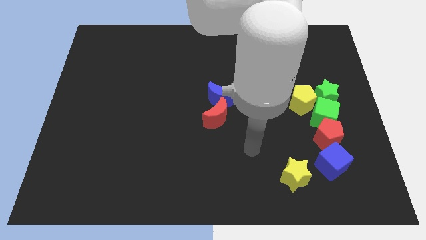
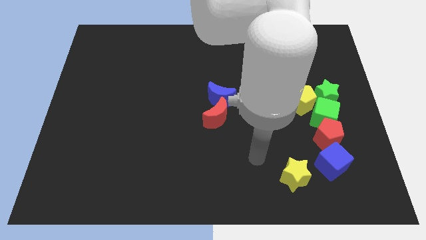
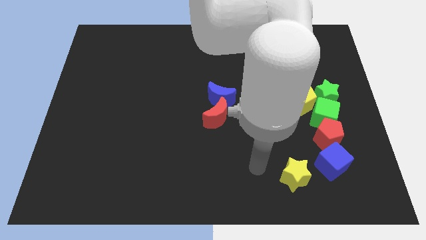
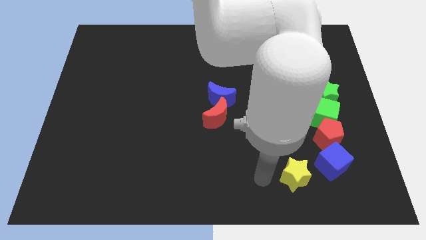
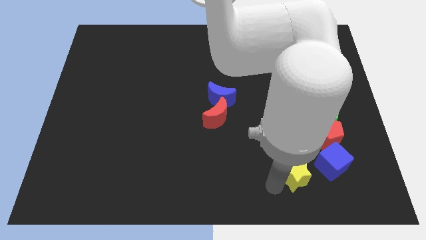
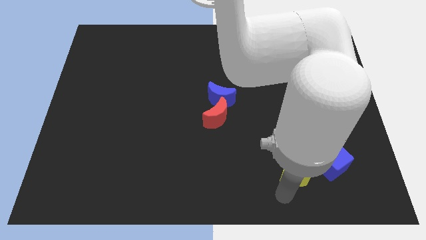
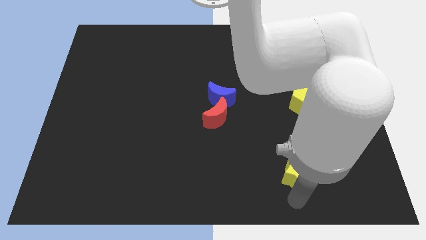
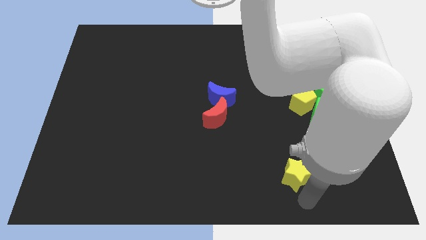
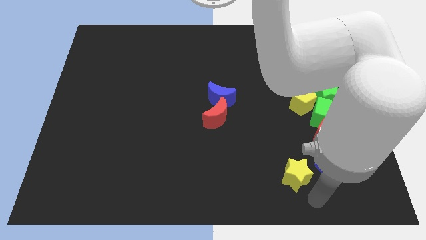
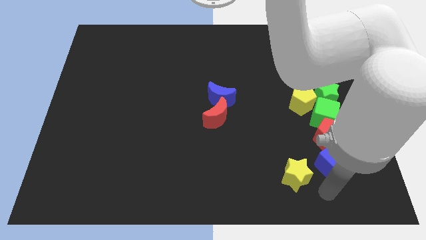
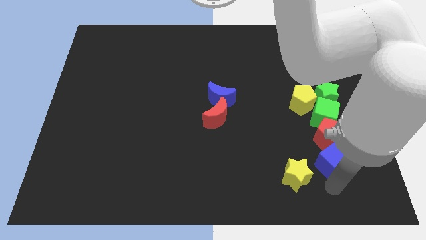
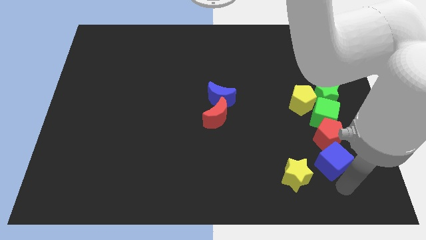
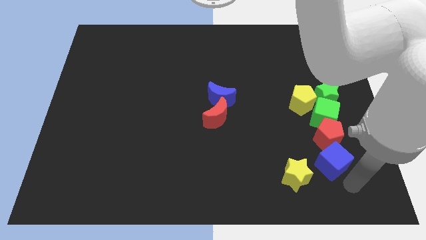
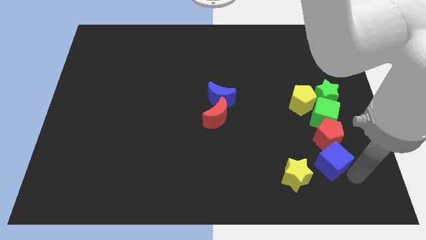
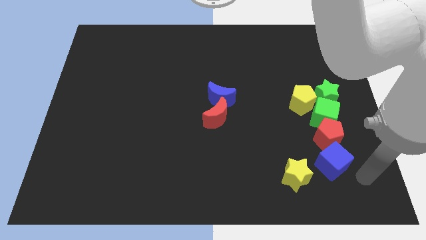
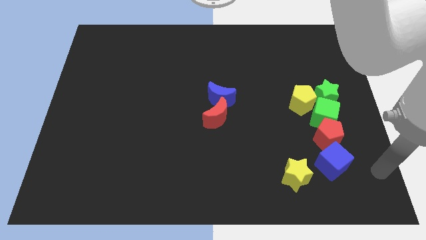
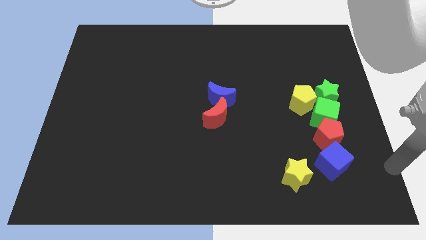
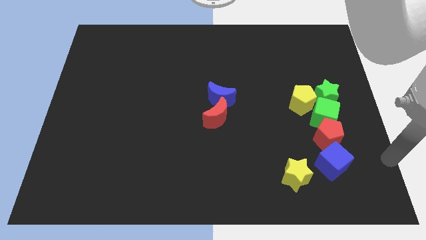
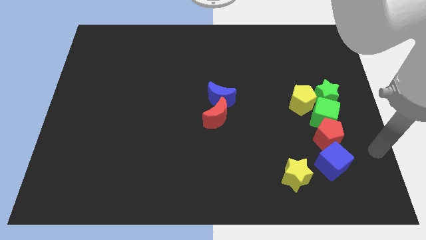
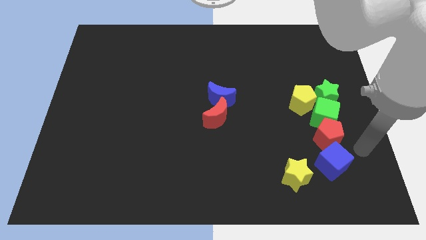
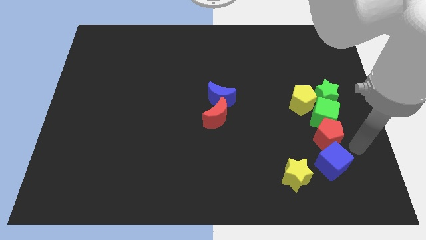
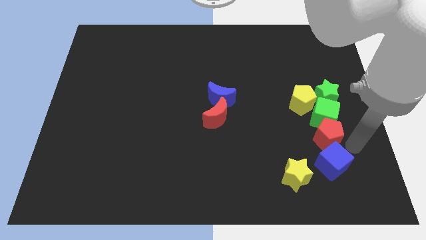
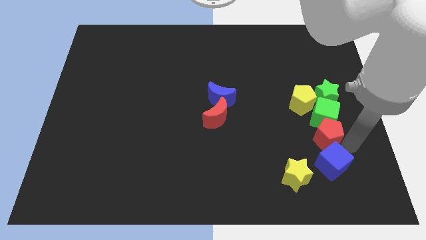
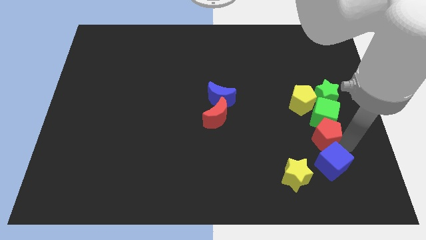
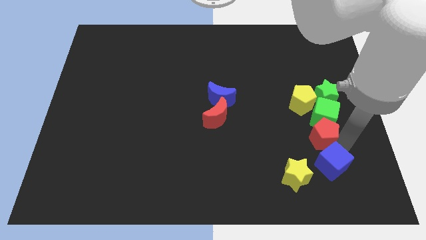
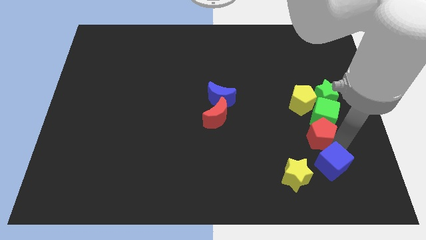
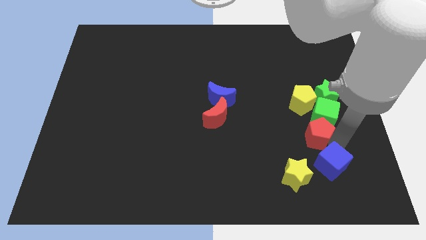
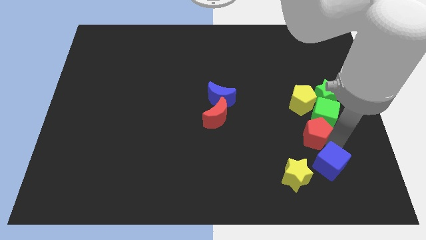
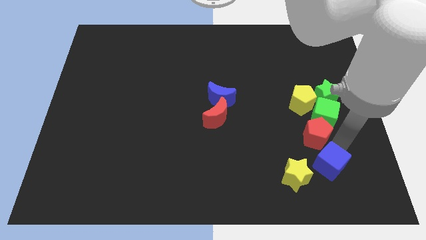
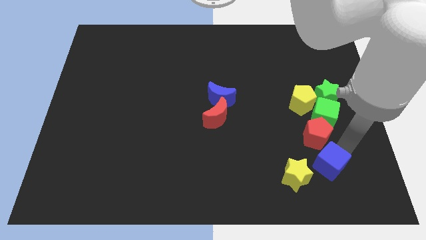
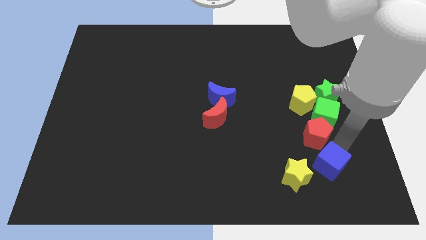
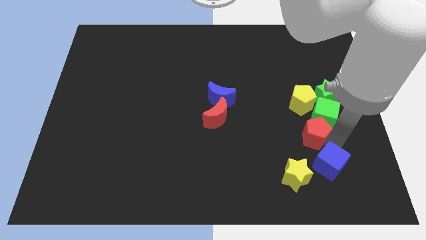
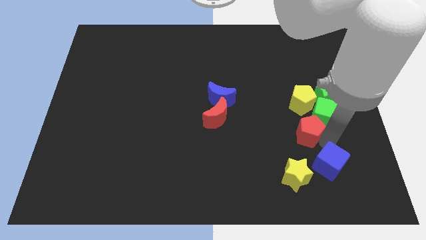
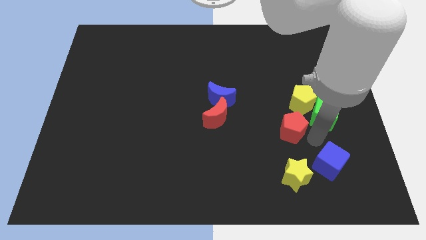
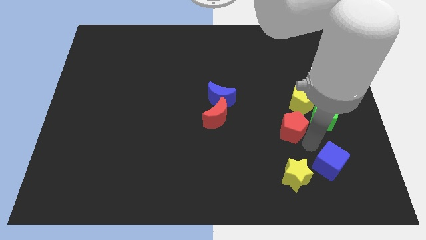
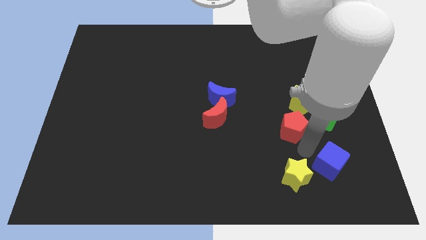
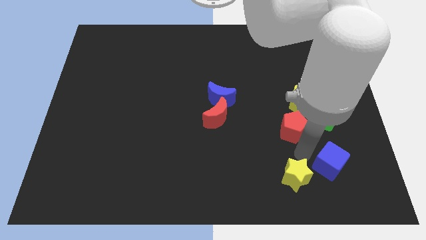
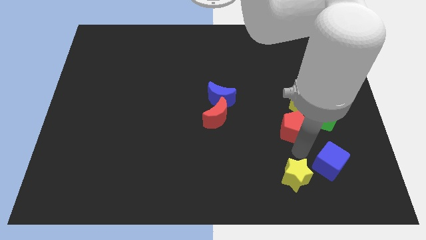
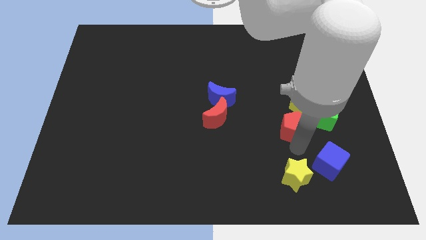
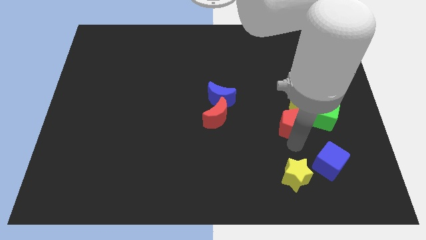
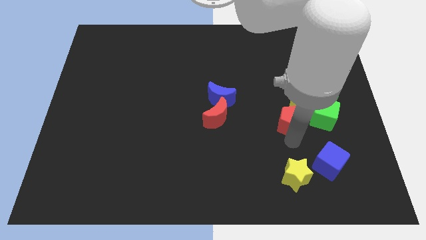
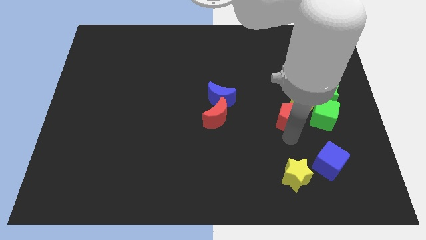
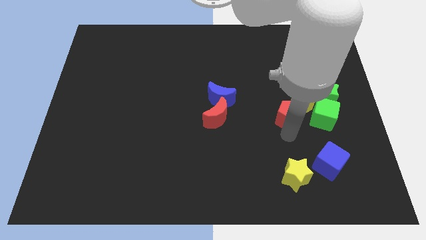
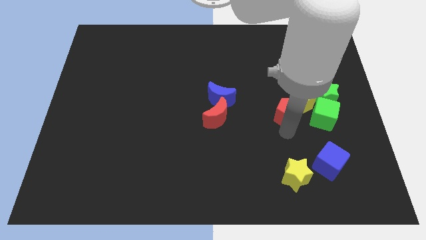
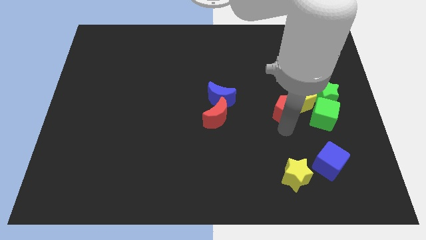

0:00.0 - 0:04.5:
push the red pentagon left of the green star

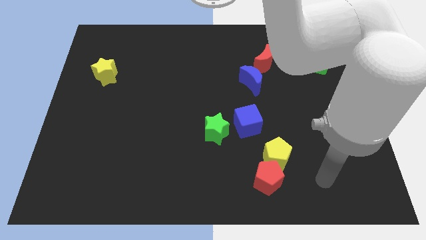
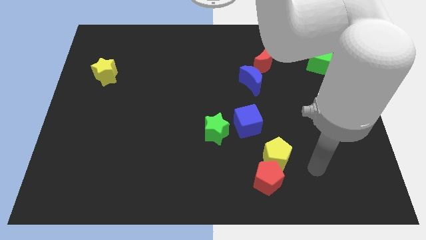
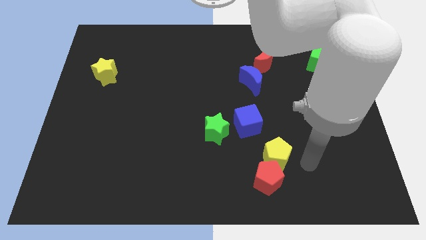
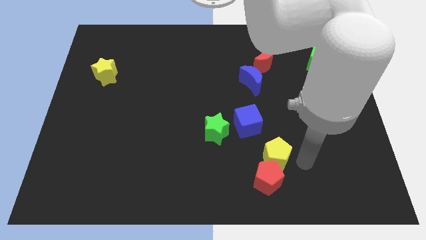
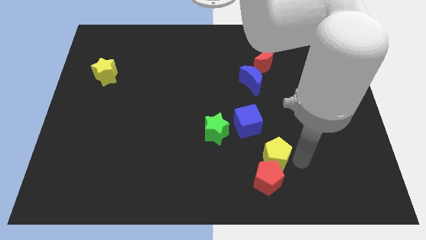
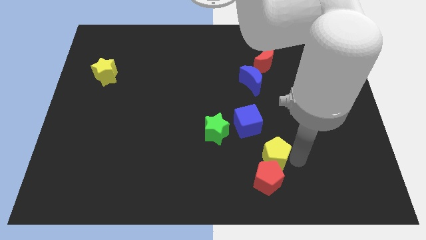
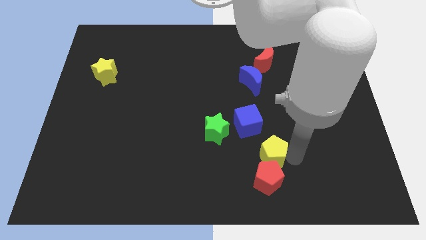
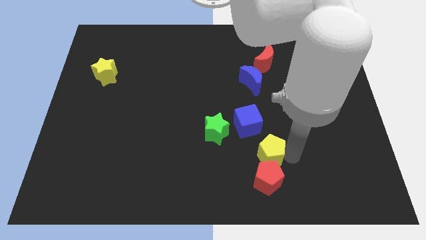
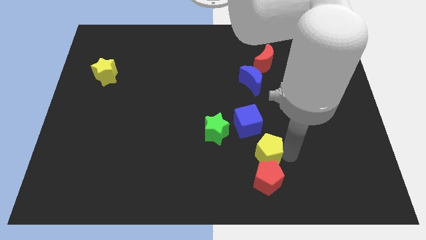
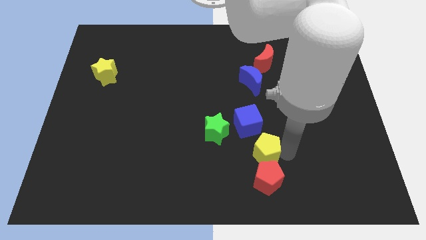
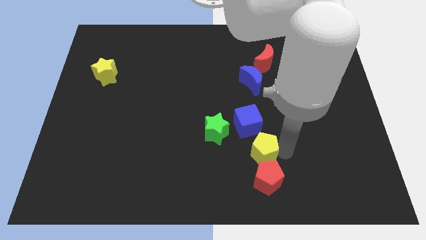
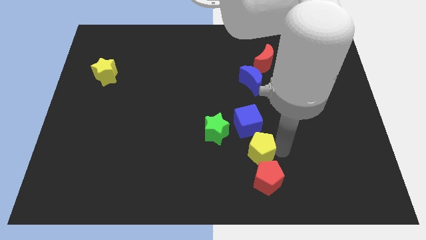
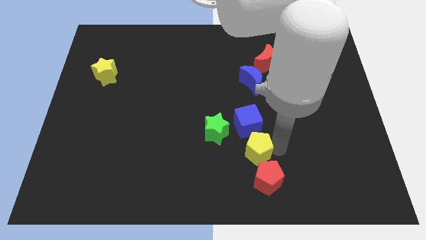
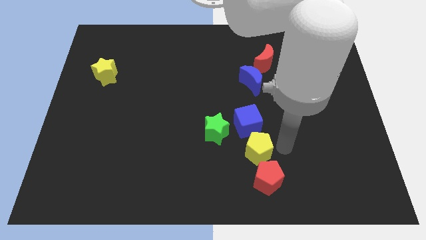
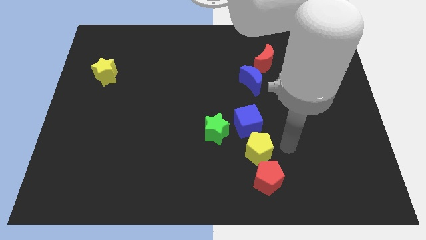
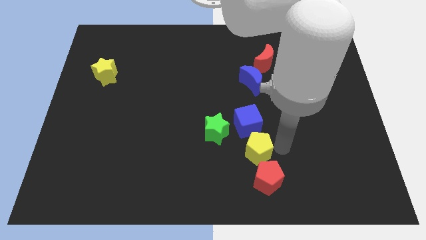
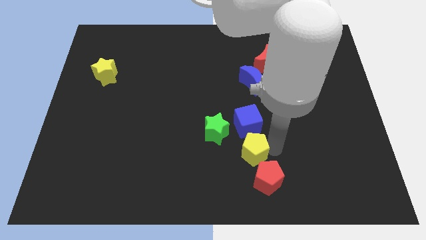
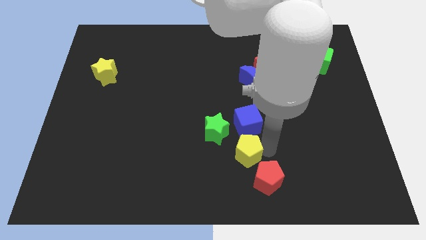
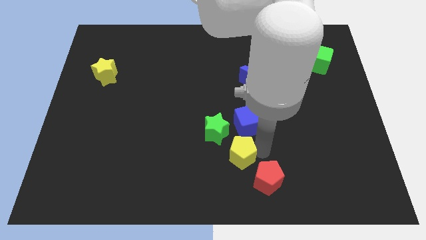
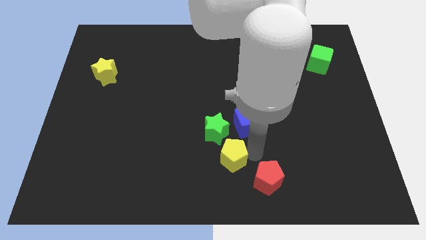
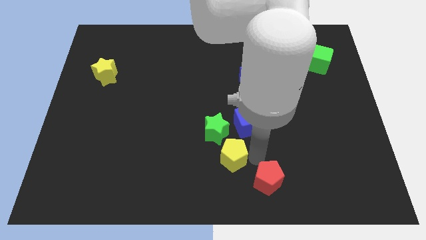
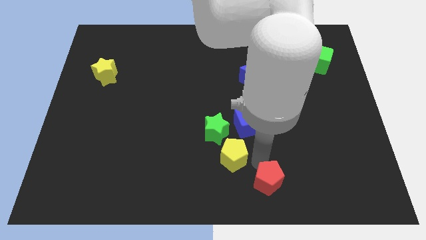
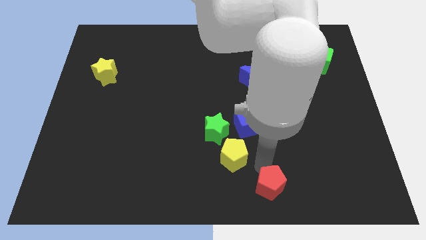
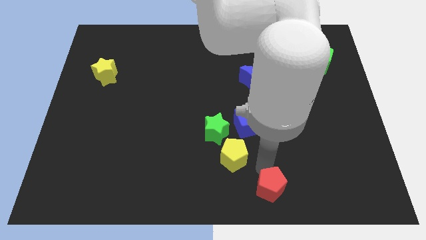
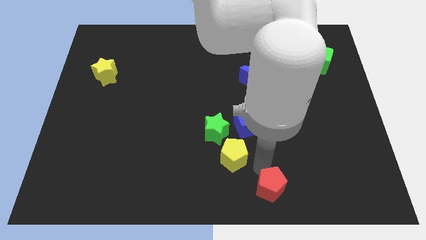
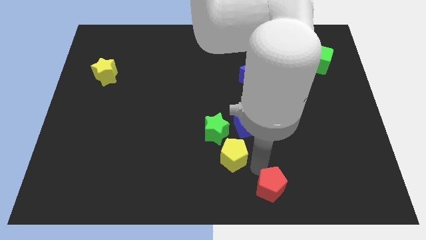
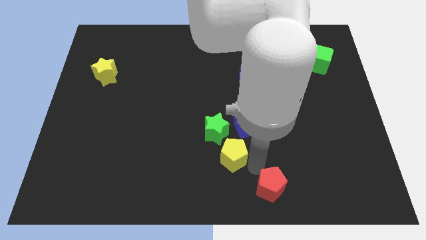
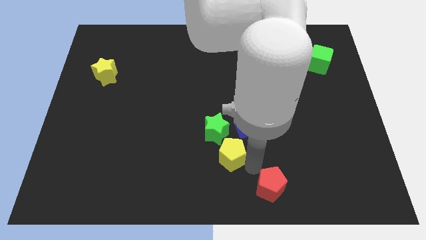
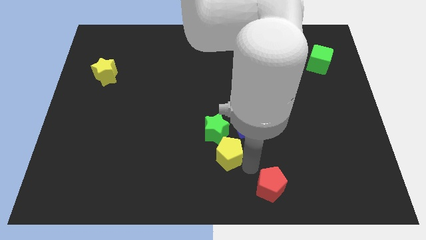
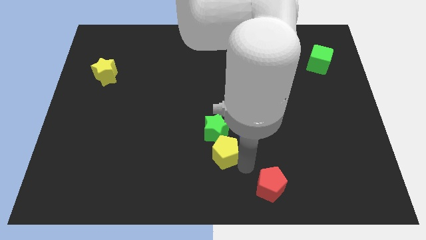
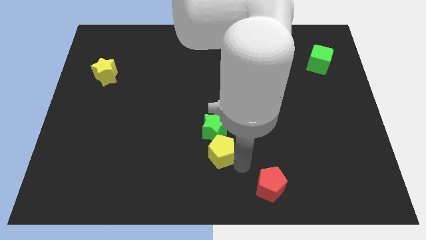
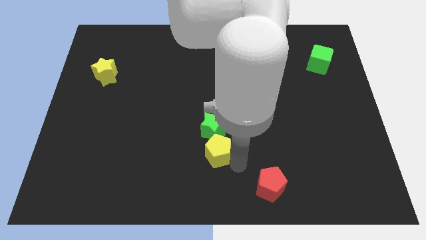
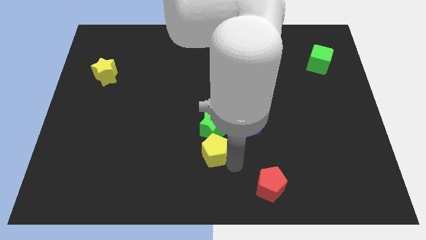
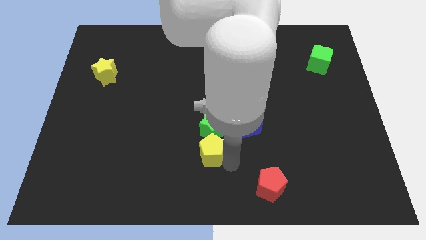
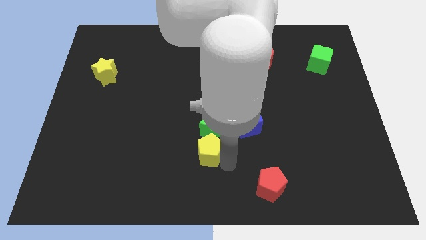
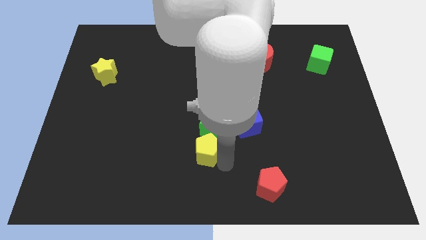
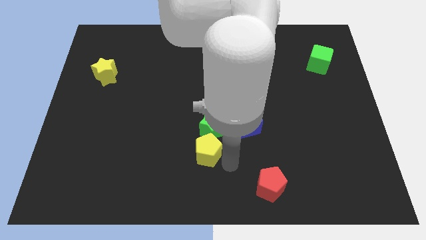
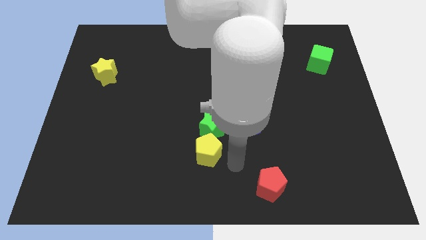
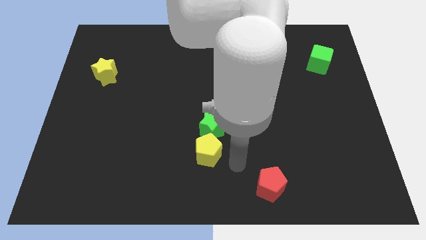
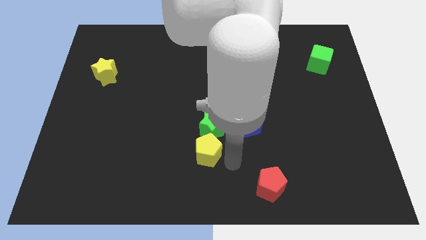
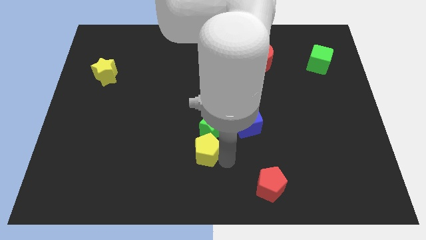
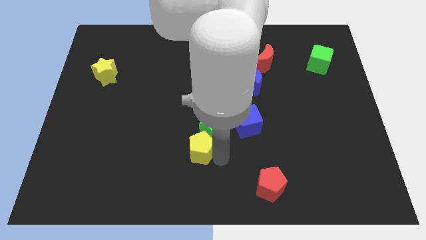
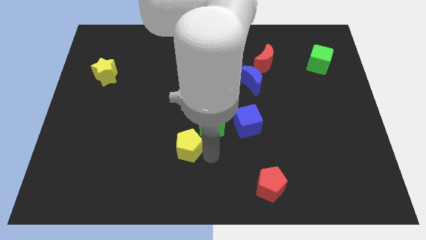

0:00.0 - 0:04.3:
move the yellow pentagon to the left side of the green star
